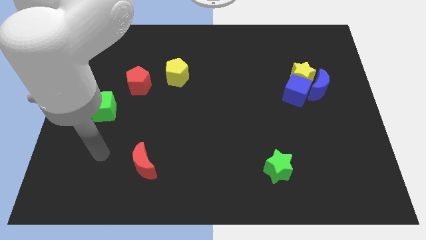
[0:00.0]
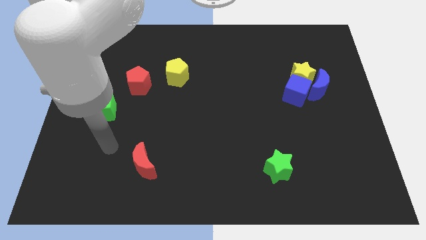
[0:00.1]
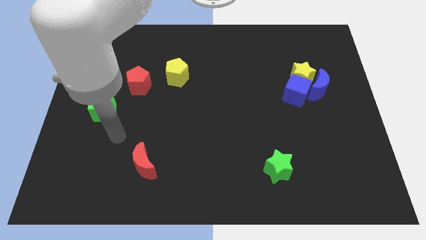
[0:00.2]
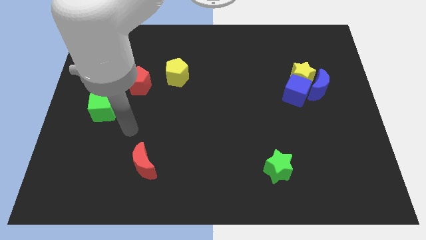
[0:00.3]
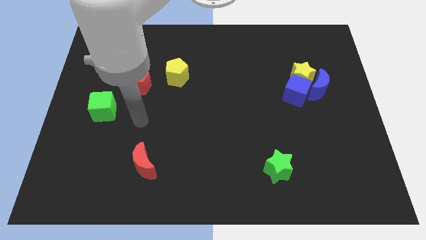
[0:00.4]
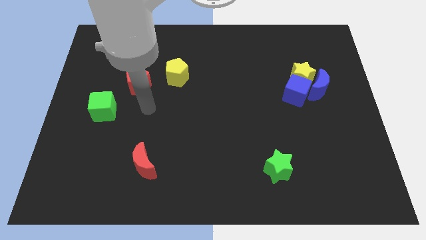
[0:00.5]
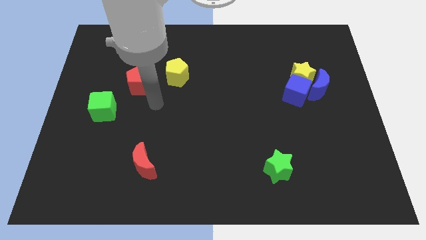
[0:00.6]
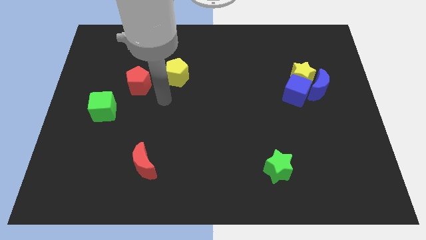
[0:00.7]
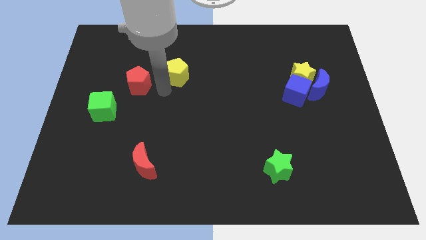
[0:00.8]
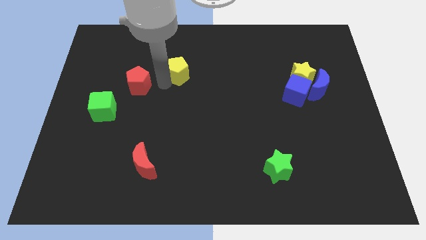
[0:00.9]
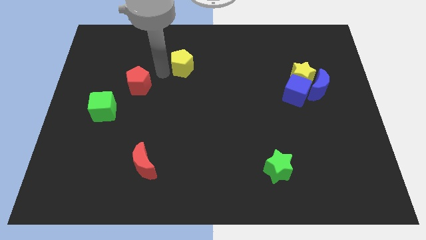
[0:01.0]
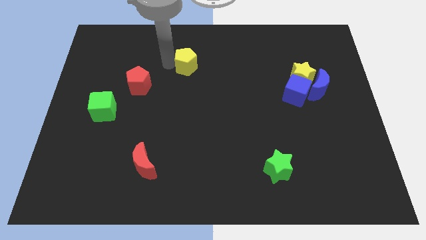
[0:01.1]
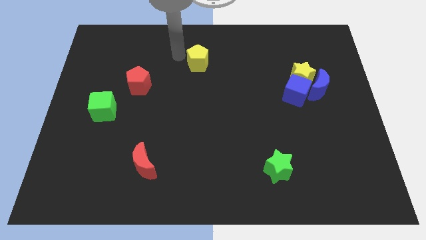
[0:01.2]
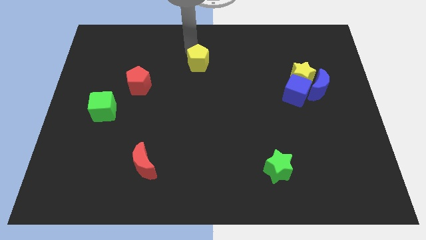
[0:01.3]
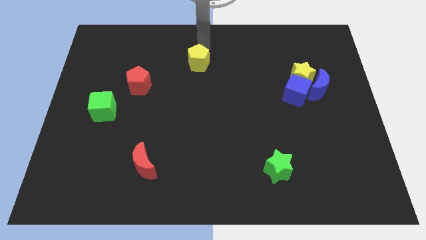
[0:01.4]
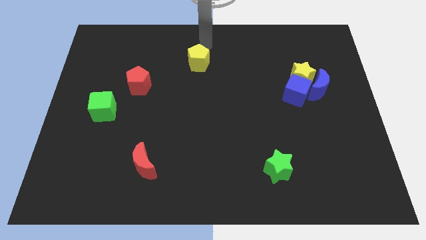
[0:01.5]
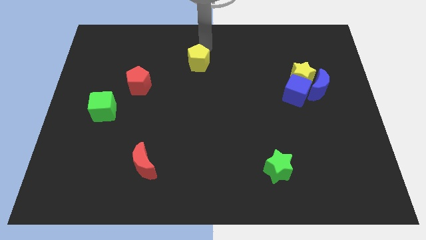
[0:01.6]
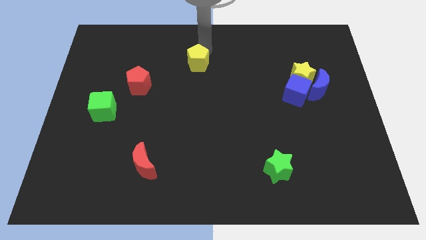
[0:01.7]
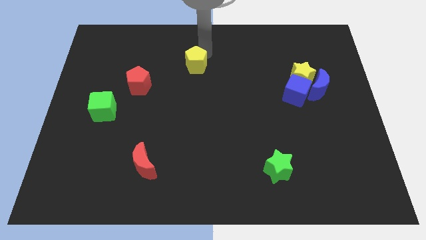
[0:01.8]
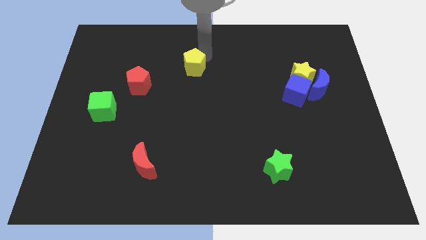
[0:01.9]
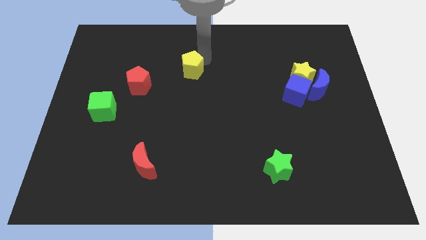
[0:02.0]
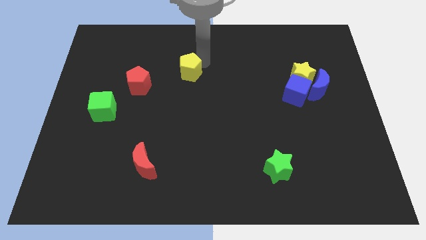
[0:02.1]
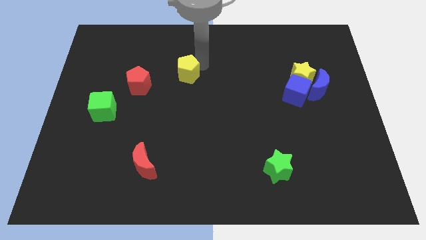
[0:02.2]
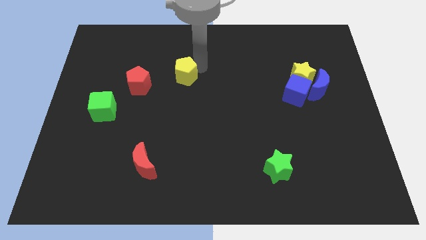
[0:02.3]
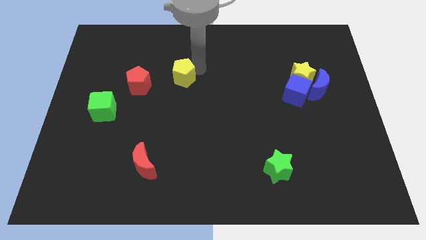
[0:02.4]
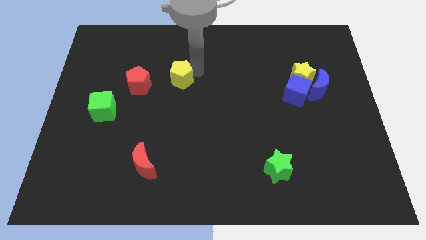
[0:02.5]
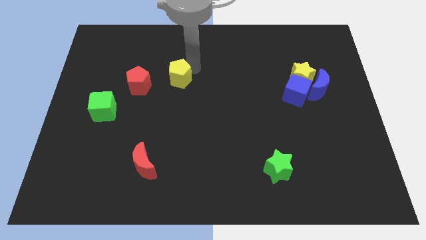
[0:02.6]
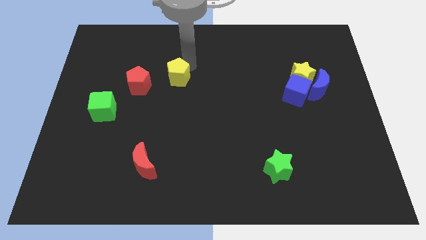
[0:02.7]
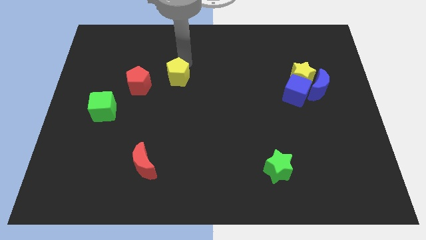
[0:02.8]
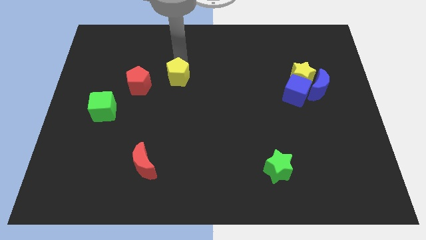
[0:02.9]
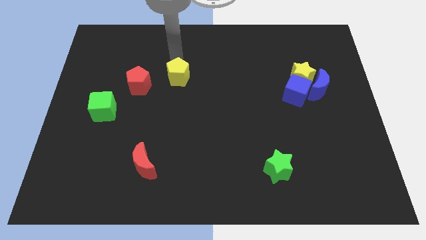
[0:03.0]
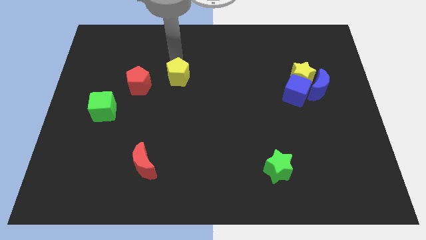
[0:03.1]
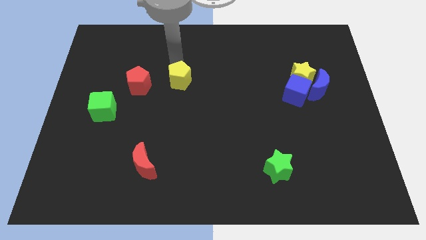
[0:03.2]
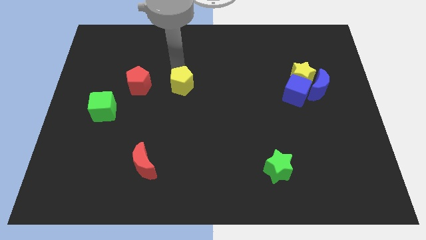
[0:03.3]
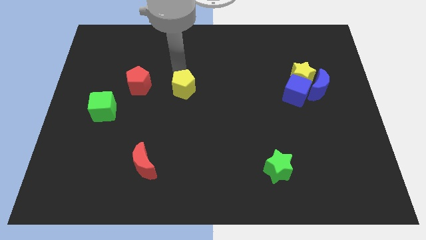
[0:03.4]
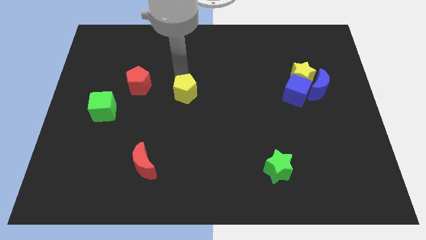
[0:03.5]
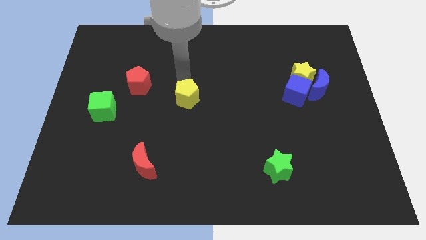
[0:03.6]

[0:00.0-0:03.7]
slightly slide the yellow pentagon down

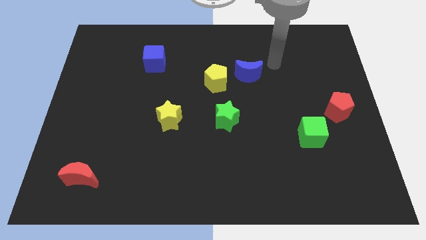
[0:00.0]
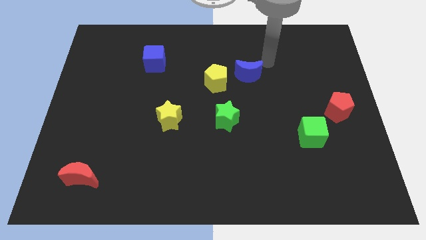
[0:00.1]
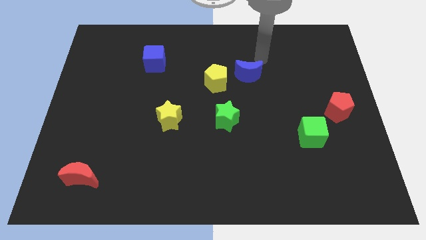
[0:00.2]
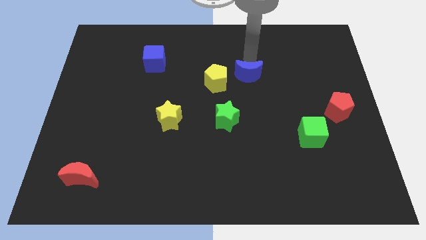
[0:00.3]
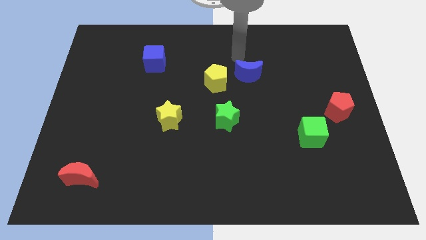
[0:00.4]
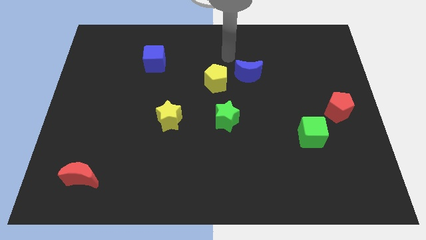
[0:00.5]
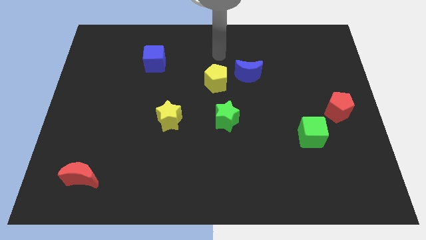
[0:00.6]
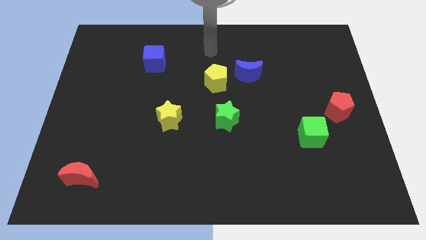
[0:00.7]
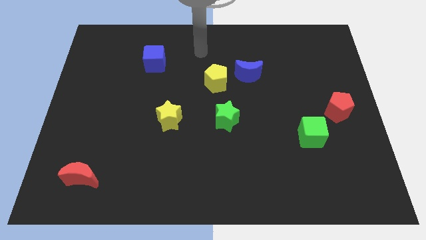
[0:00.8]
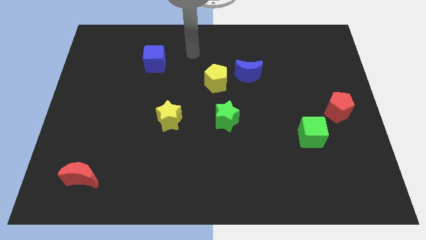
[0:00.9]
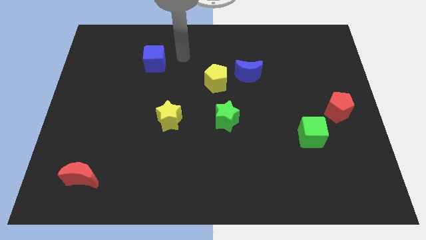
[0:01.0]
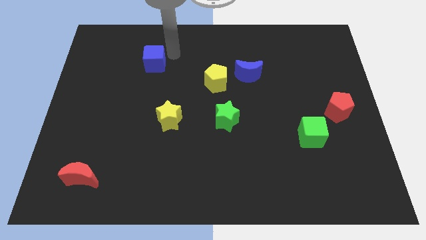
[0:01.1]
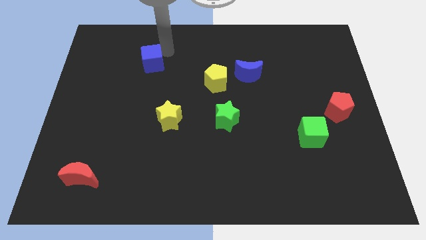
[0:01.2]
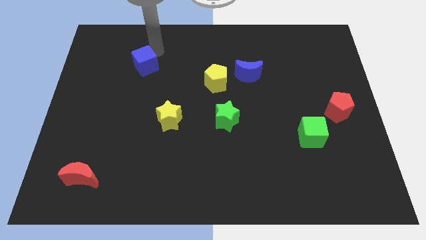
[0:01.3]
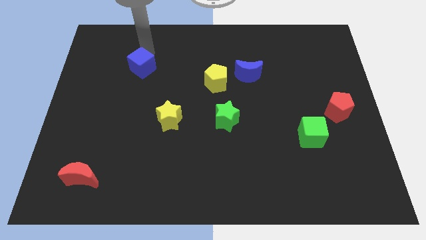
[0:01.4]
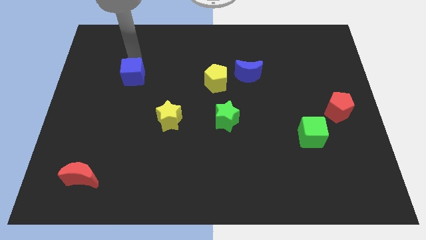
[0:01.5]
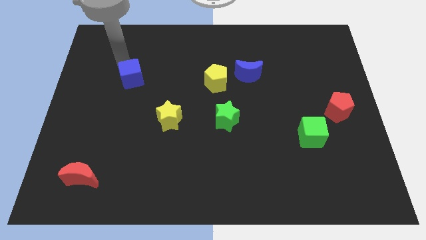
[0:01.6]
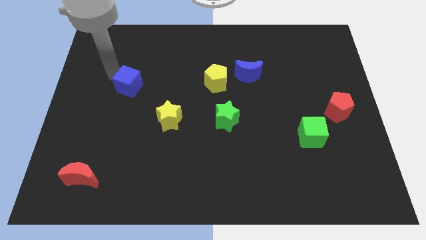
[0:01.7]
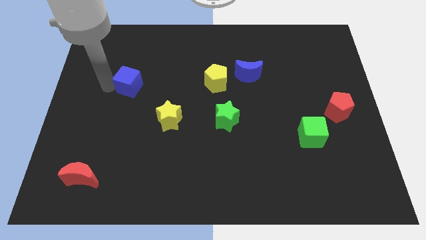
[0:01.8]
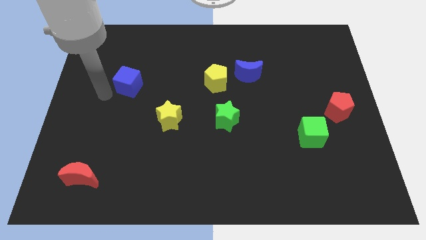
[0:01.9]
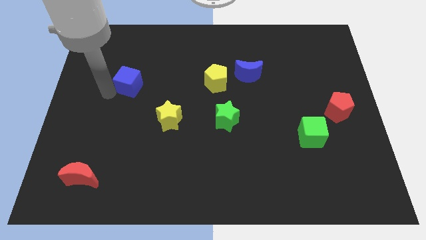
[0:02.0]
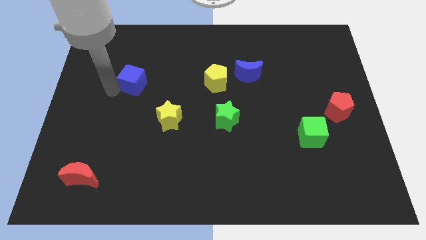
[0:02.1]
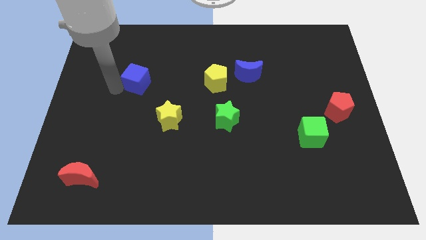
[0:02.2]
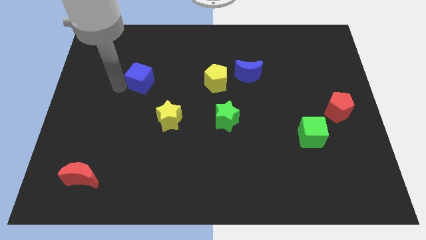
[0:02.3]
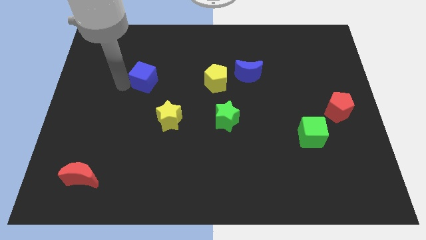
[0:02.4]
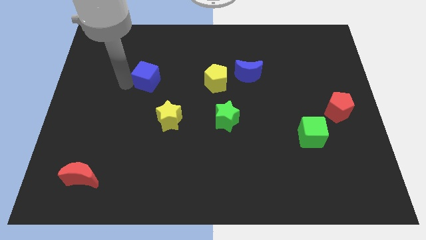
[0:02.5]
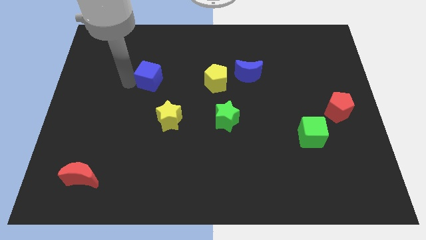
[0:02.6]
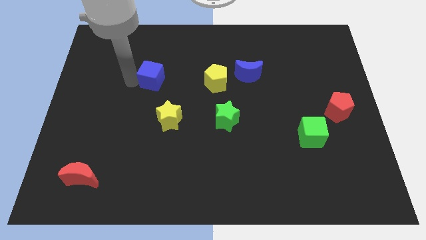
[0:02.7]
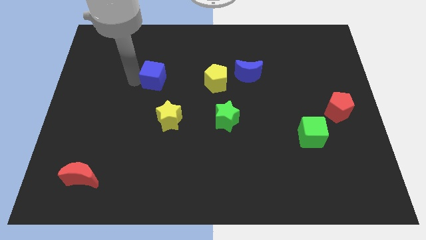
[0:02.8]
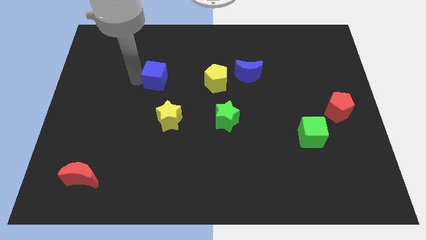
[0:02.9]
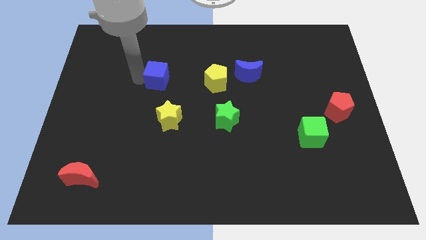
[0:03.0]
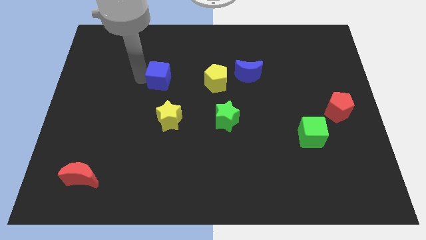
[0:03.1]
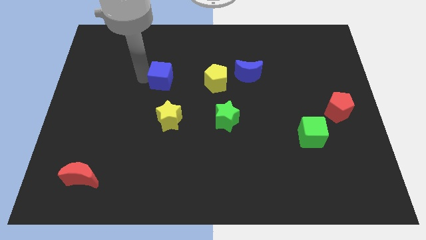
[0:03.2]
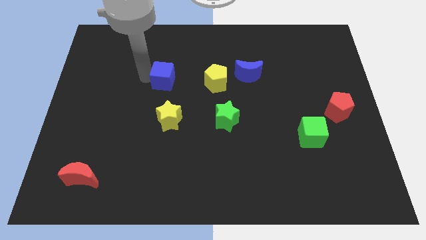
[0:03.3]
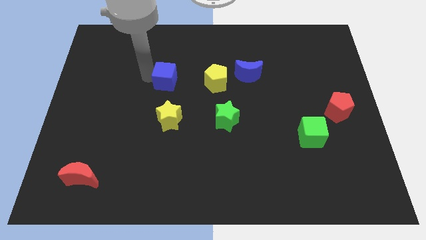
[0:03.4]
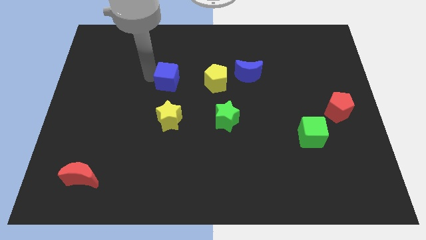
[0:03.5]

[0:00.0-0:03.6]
slightly slide the blue cube diagonally down and right

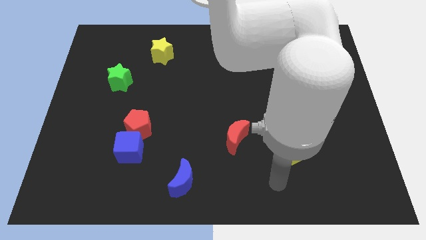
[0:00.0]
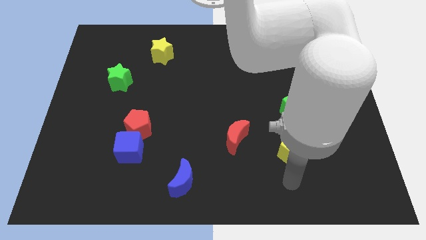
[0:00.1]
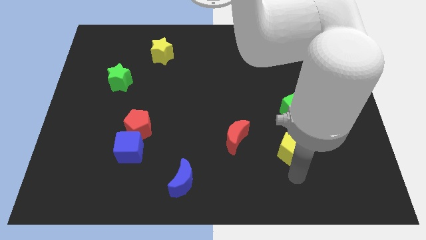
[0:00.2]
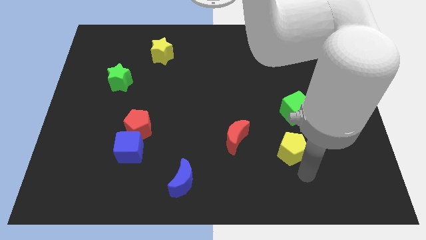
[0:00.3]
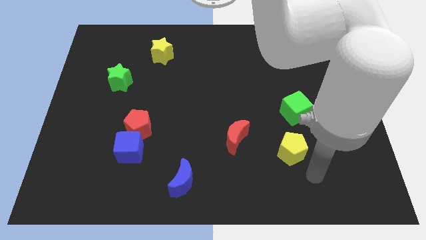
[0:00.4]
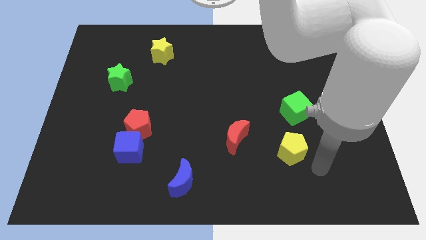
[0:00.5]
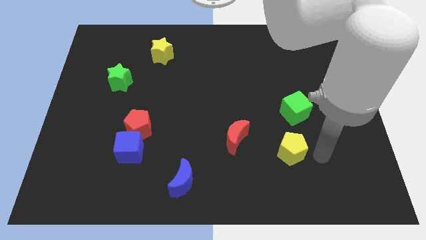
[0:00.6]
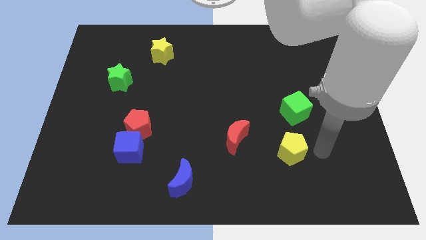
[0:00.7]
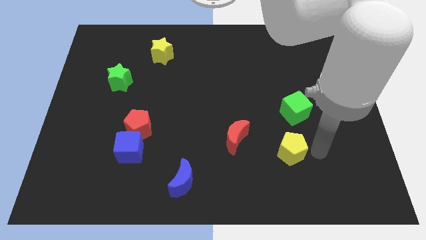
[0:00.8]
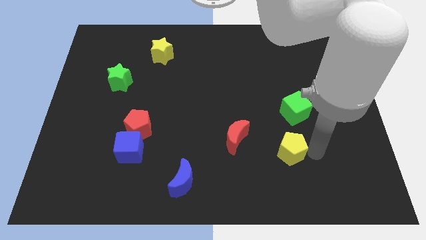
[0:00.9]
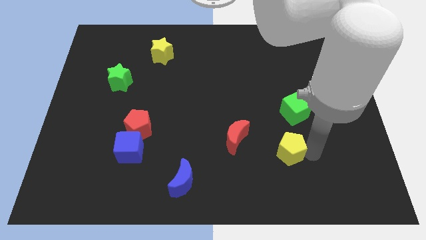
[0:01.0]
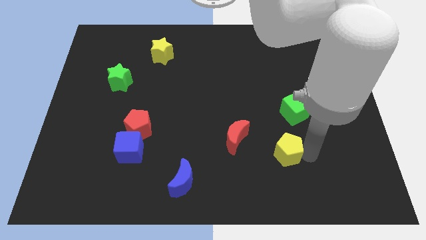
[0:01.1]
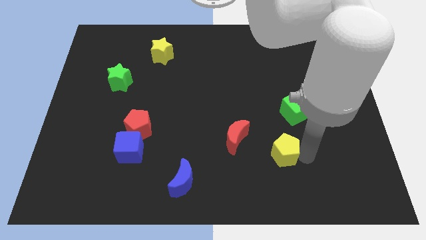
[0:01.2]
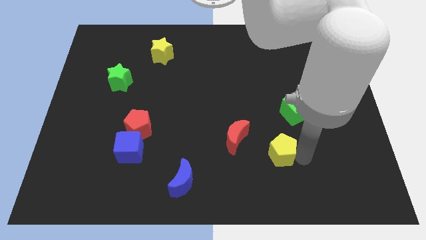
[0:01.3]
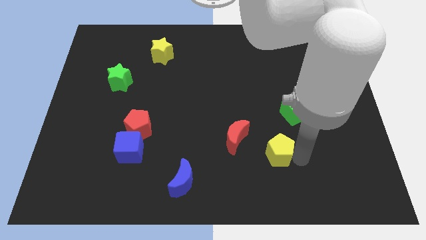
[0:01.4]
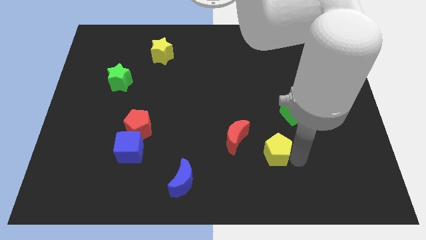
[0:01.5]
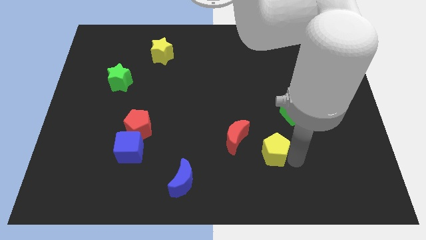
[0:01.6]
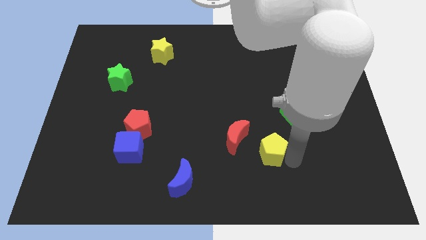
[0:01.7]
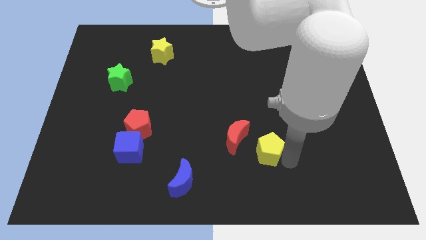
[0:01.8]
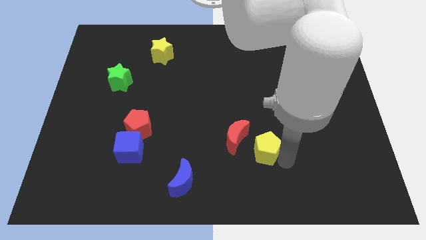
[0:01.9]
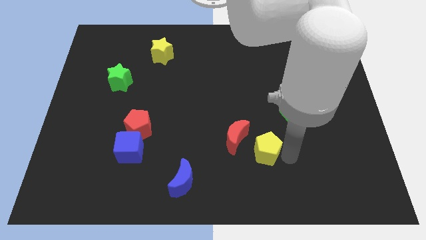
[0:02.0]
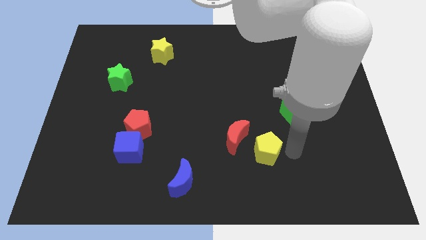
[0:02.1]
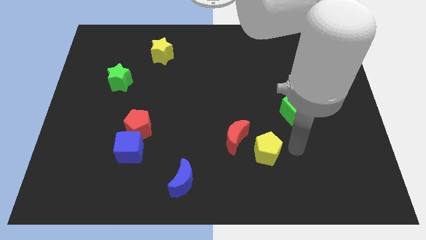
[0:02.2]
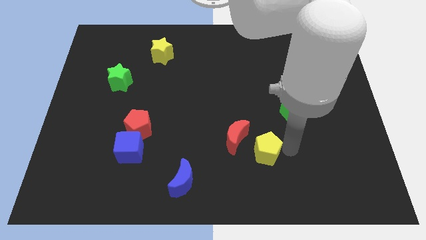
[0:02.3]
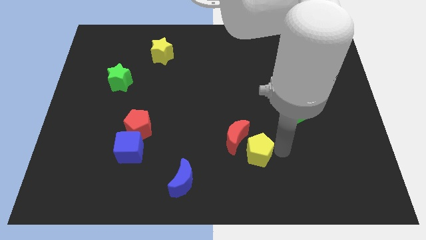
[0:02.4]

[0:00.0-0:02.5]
push the yellow pentagon left slightly
